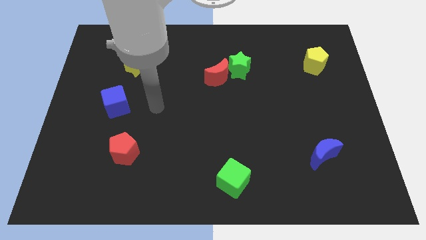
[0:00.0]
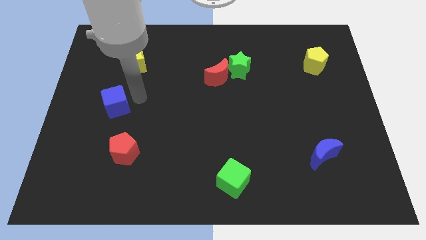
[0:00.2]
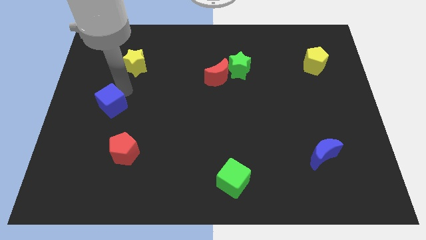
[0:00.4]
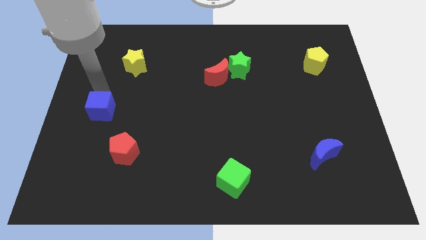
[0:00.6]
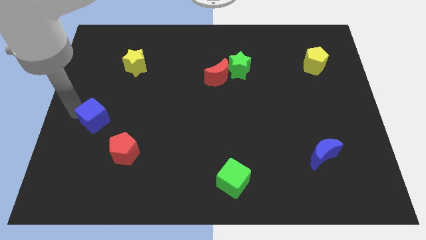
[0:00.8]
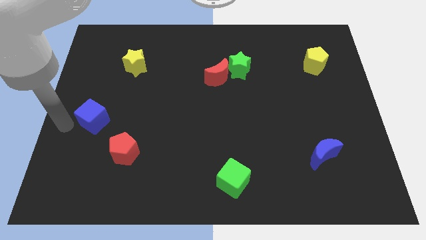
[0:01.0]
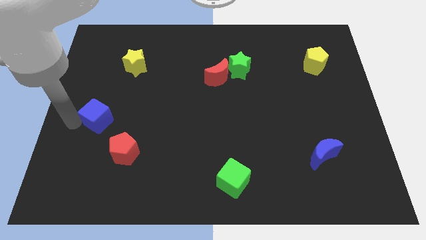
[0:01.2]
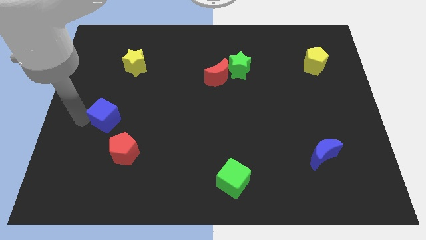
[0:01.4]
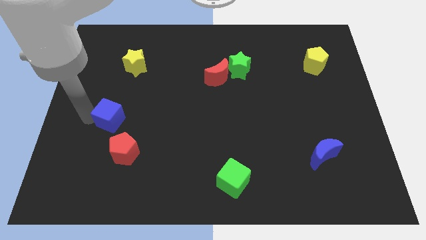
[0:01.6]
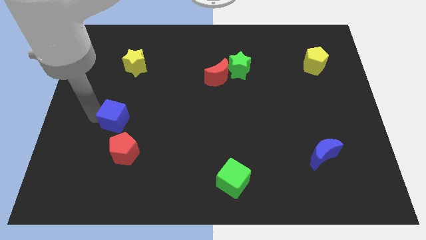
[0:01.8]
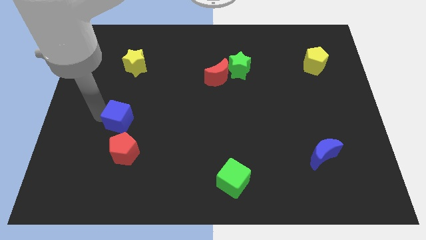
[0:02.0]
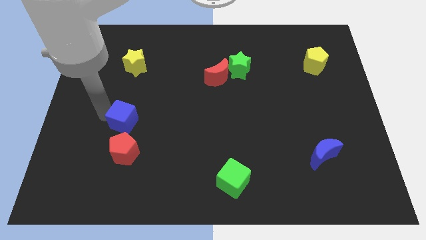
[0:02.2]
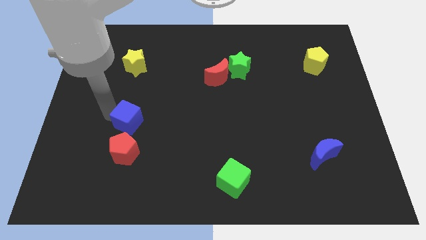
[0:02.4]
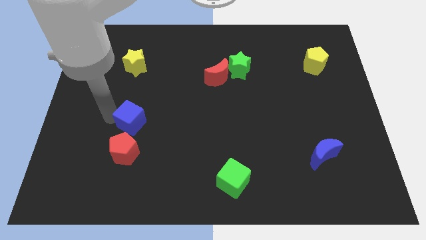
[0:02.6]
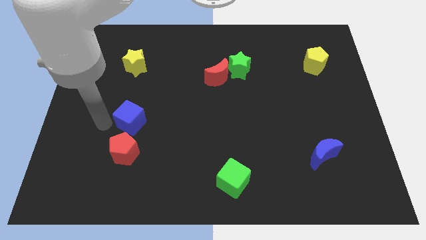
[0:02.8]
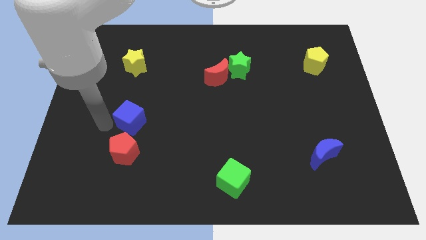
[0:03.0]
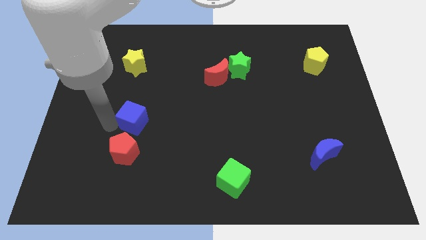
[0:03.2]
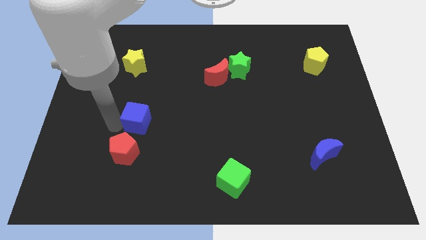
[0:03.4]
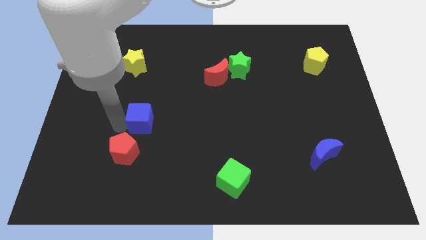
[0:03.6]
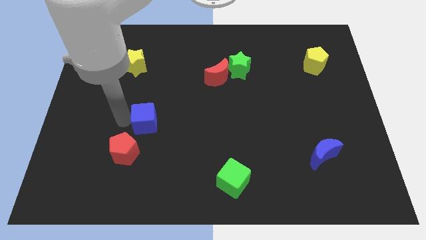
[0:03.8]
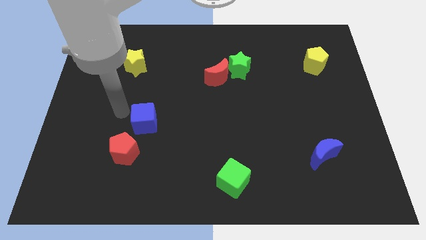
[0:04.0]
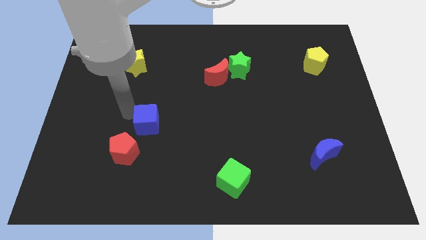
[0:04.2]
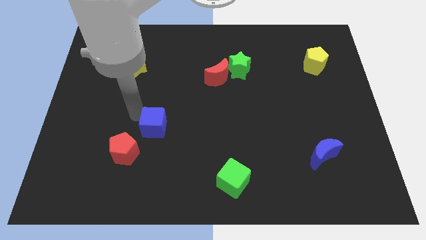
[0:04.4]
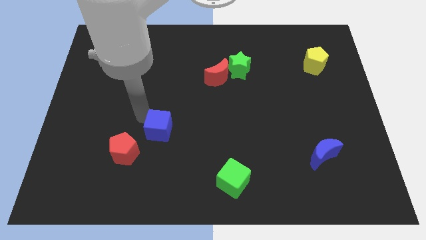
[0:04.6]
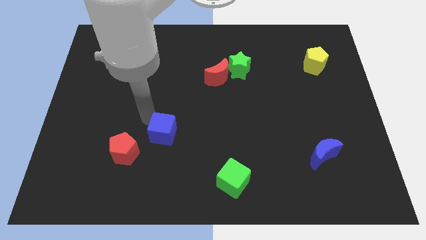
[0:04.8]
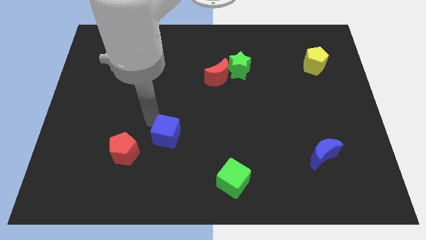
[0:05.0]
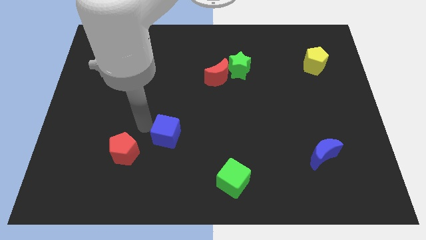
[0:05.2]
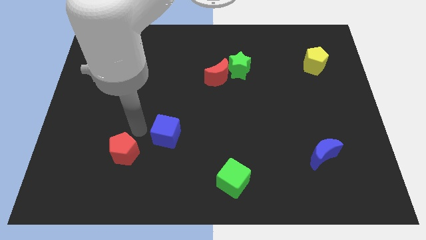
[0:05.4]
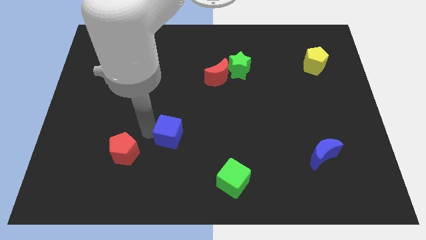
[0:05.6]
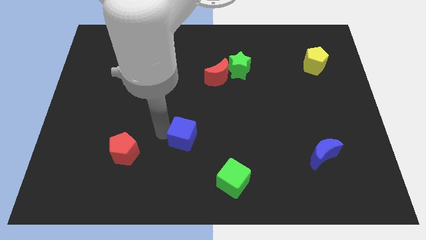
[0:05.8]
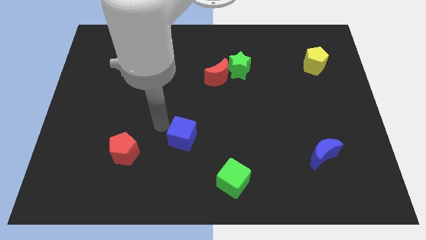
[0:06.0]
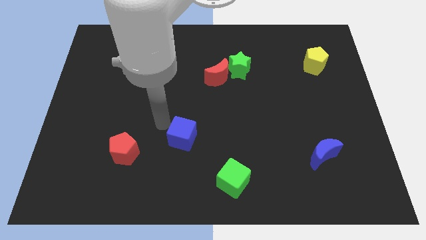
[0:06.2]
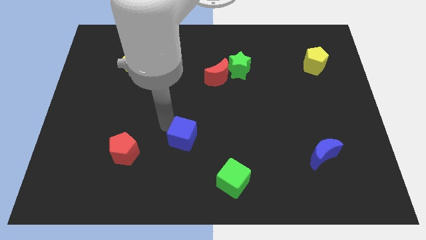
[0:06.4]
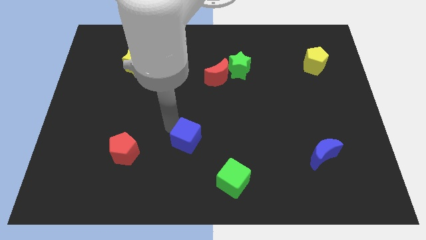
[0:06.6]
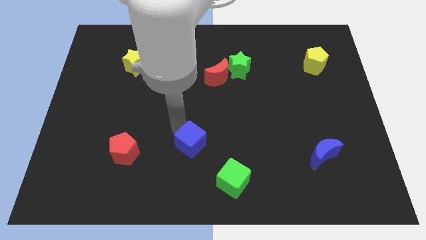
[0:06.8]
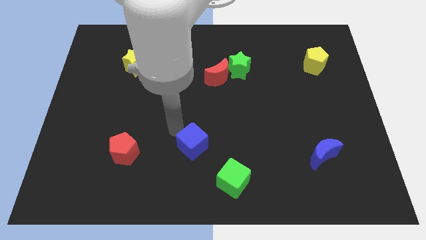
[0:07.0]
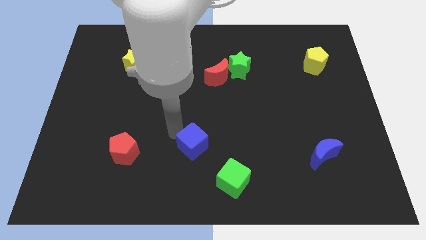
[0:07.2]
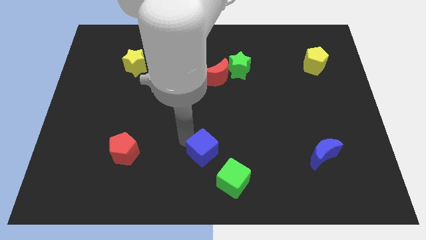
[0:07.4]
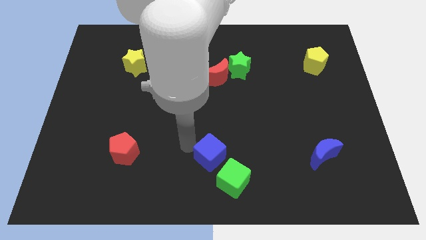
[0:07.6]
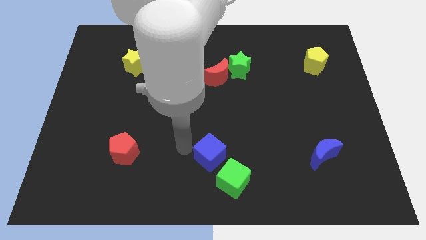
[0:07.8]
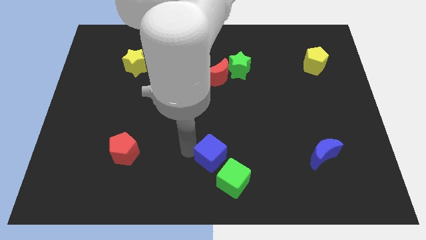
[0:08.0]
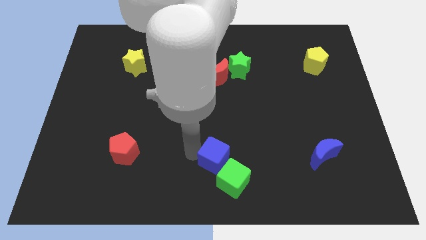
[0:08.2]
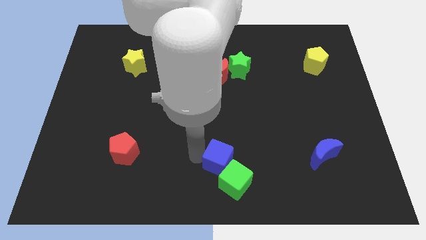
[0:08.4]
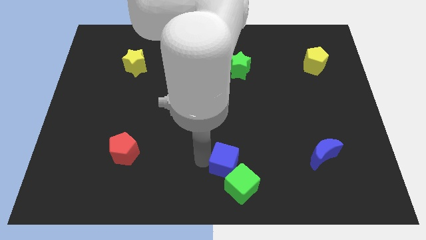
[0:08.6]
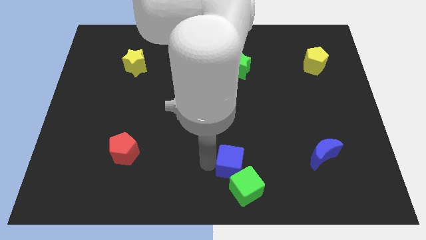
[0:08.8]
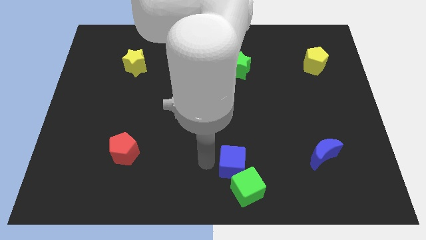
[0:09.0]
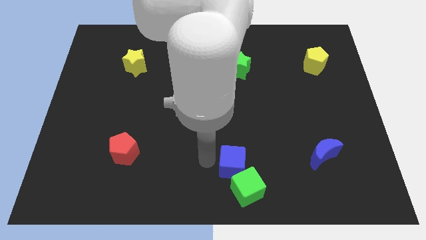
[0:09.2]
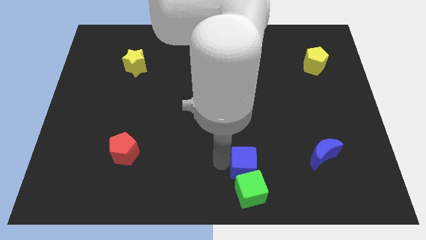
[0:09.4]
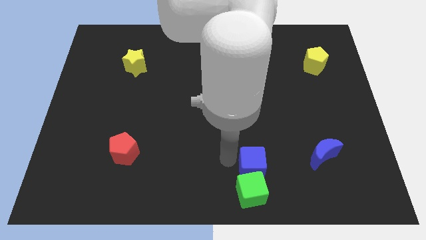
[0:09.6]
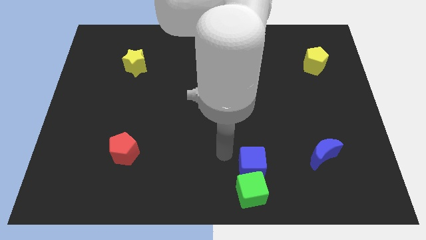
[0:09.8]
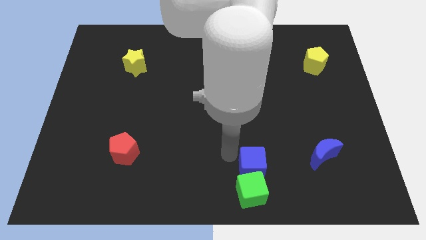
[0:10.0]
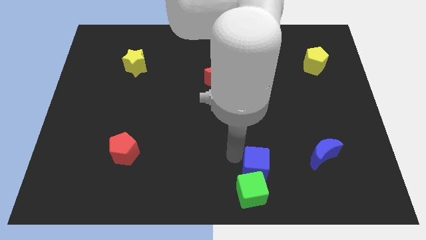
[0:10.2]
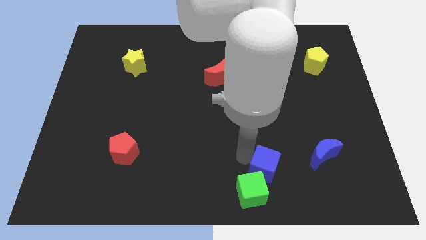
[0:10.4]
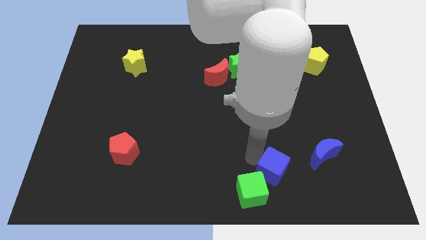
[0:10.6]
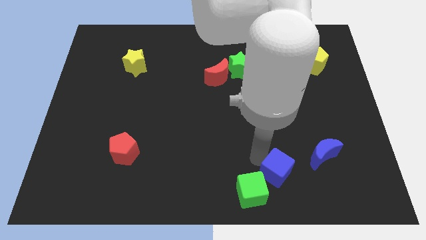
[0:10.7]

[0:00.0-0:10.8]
slide the blue cube to the right side of the green cube

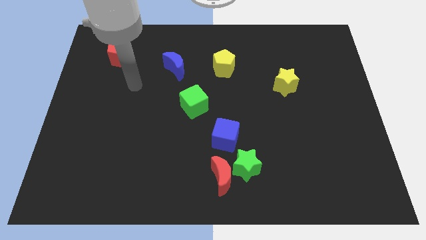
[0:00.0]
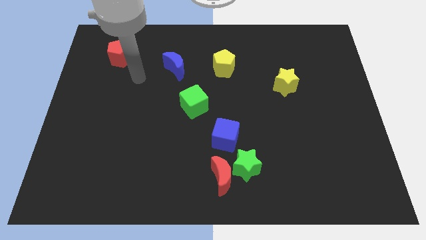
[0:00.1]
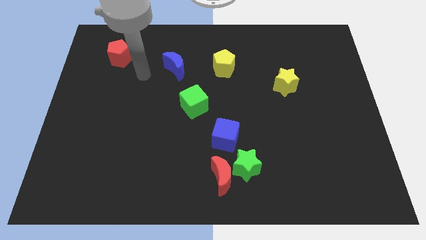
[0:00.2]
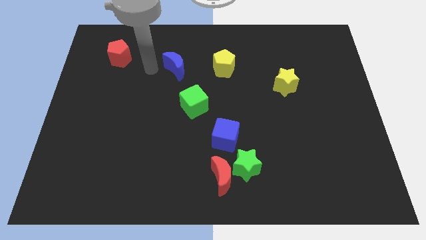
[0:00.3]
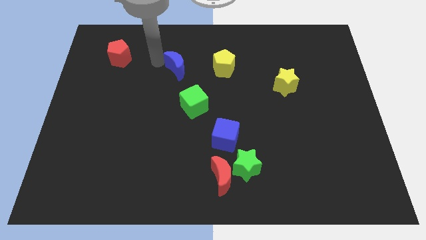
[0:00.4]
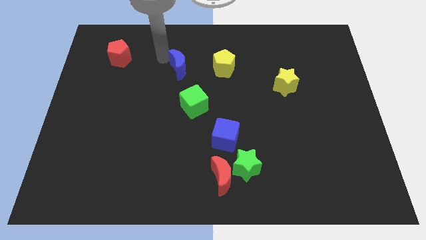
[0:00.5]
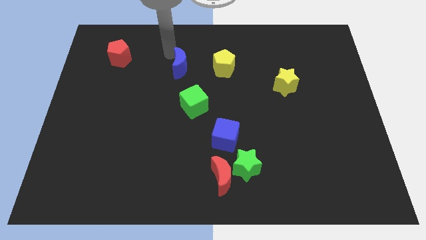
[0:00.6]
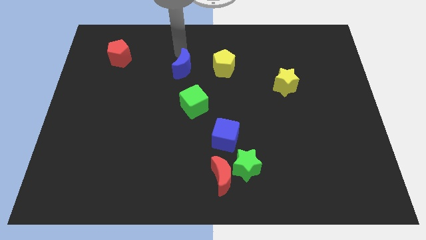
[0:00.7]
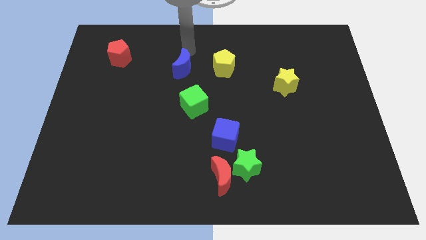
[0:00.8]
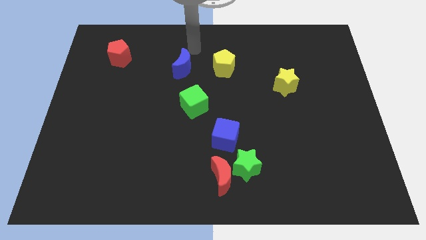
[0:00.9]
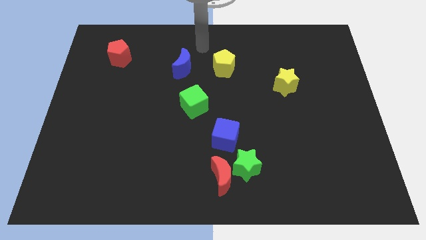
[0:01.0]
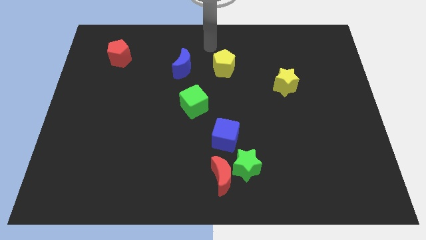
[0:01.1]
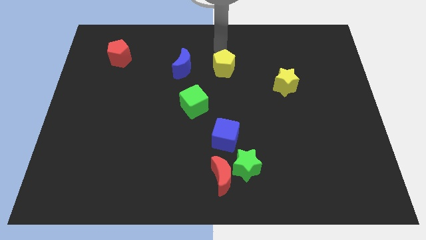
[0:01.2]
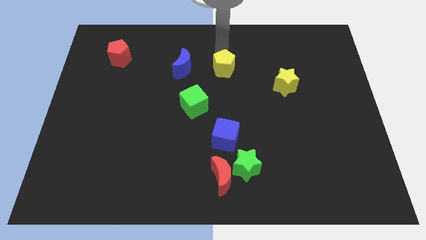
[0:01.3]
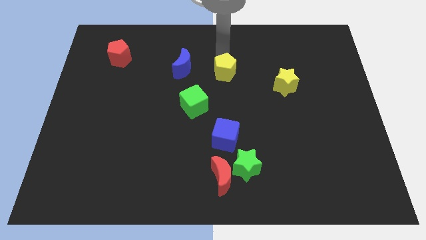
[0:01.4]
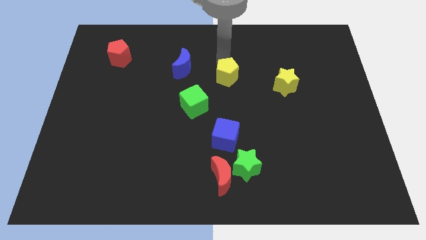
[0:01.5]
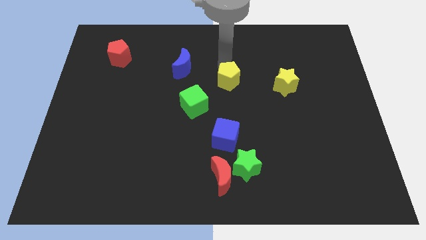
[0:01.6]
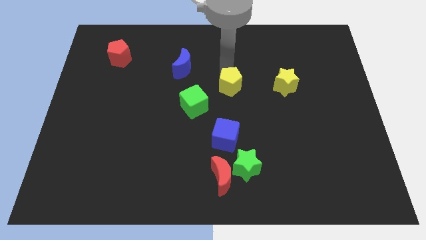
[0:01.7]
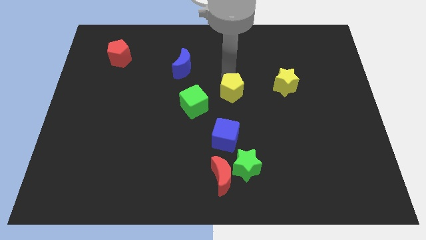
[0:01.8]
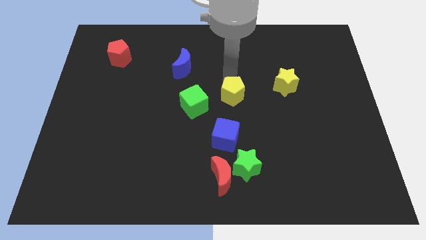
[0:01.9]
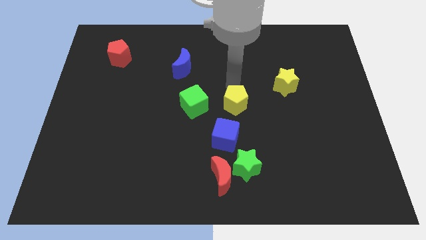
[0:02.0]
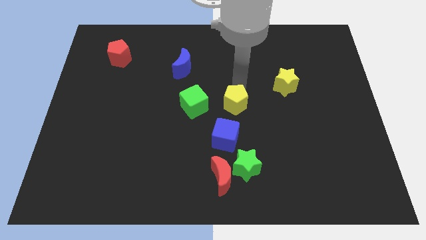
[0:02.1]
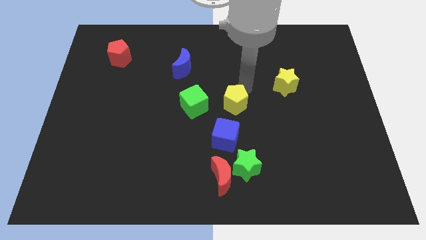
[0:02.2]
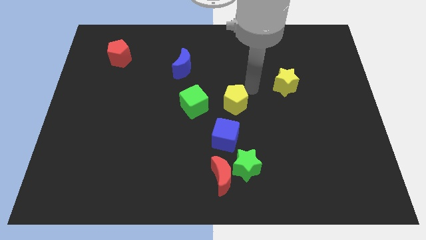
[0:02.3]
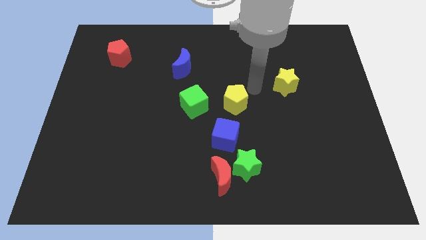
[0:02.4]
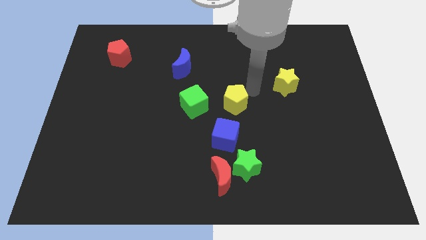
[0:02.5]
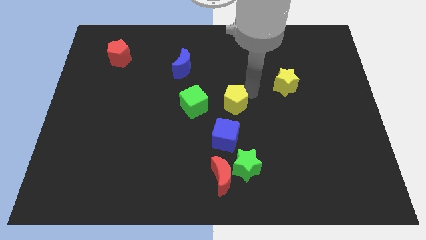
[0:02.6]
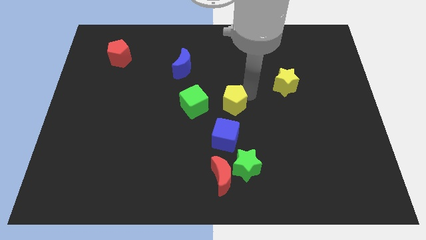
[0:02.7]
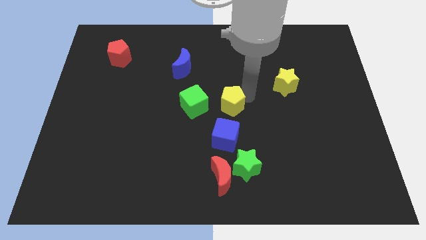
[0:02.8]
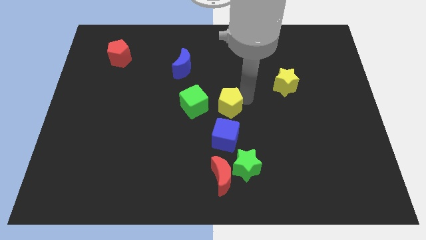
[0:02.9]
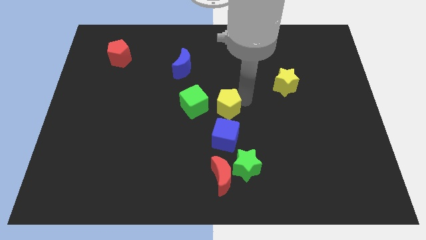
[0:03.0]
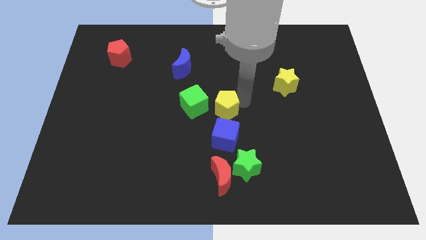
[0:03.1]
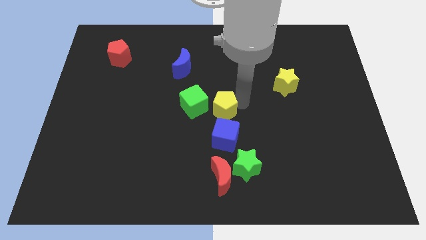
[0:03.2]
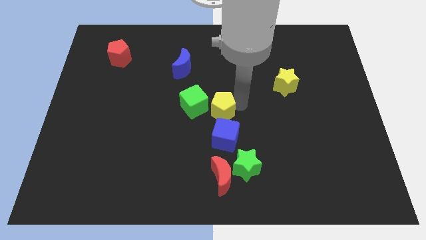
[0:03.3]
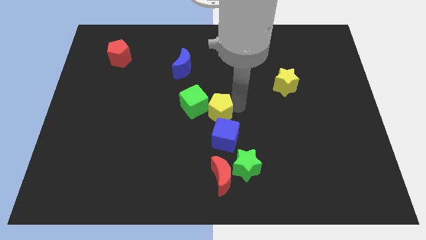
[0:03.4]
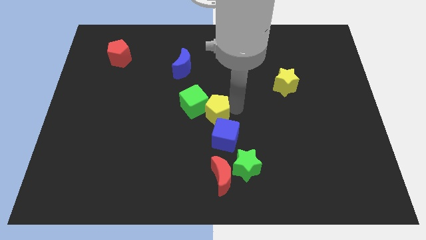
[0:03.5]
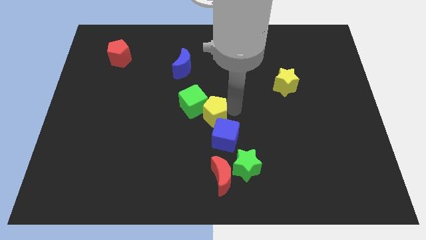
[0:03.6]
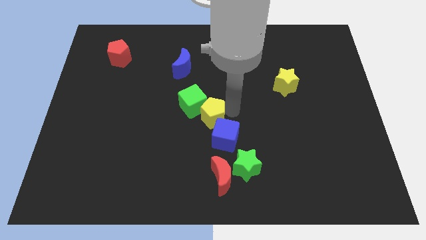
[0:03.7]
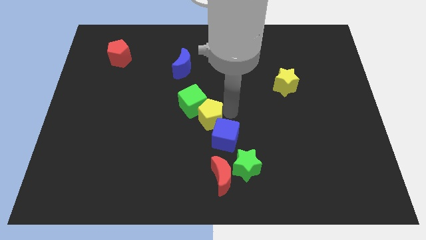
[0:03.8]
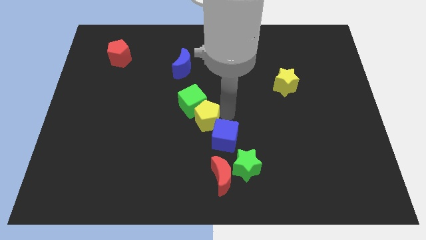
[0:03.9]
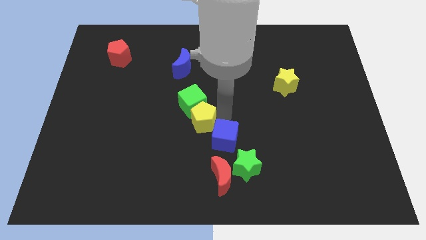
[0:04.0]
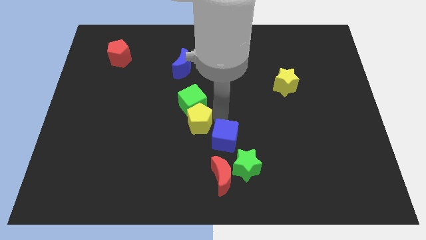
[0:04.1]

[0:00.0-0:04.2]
move the yellow pentagon to the bottom left side of the green cube
